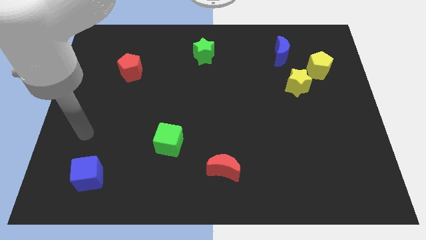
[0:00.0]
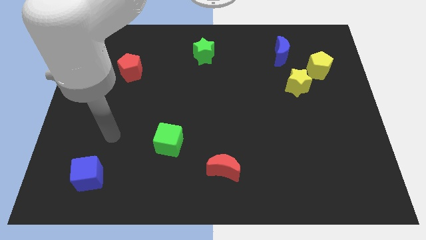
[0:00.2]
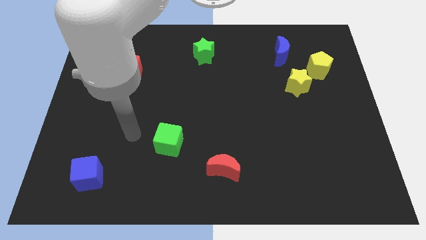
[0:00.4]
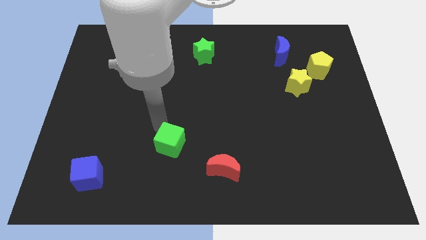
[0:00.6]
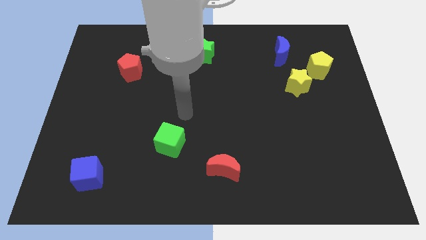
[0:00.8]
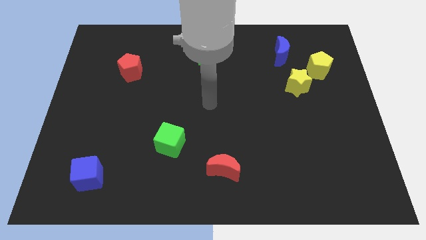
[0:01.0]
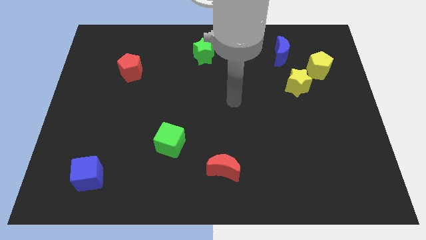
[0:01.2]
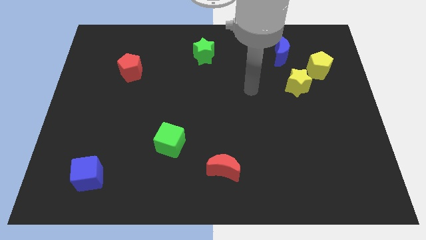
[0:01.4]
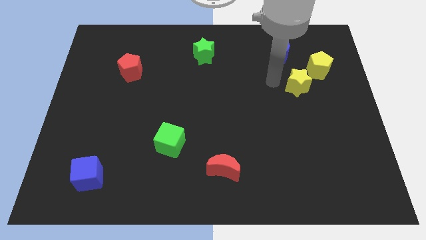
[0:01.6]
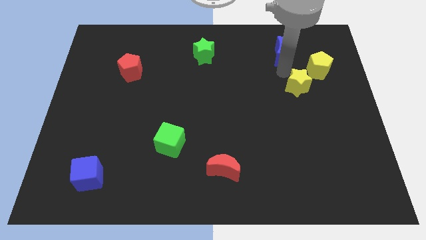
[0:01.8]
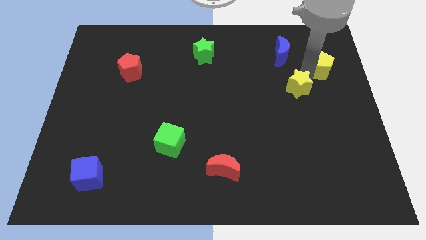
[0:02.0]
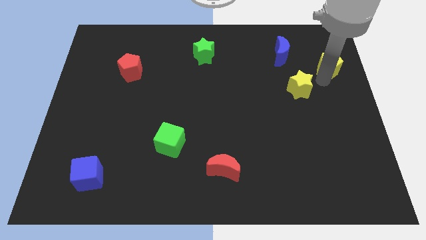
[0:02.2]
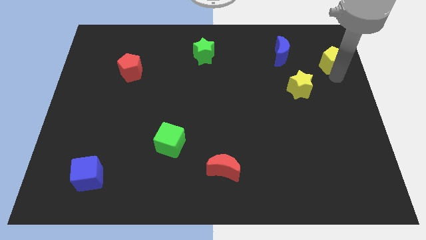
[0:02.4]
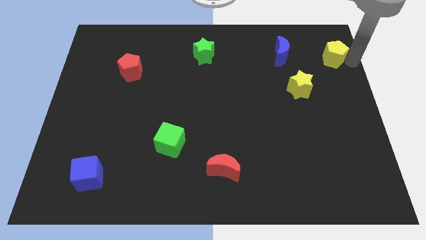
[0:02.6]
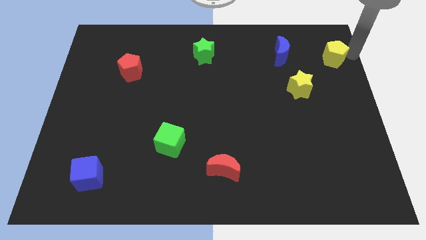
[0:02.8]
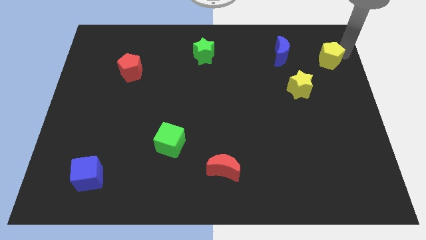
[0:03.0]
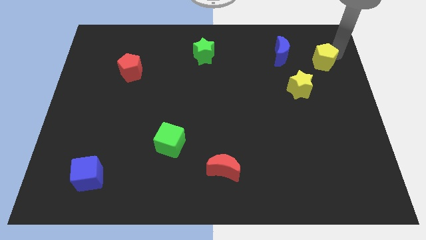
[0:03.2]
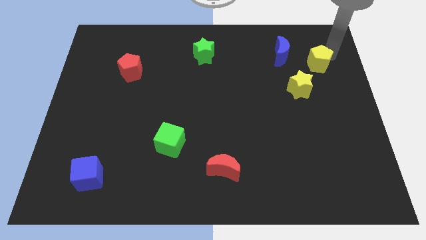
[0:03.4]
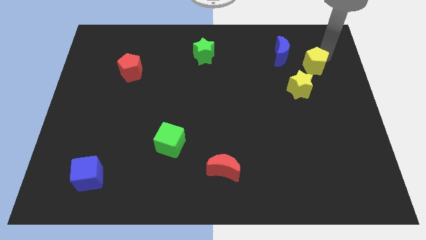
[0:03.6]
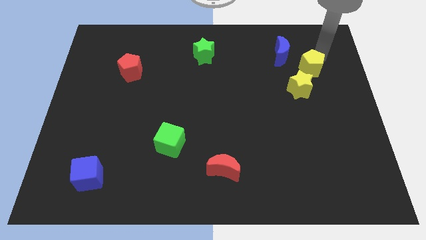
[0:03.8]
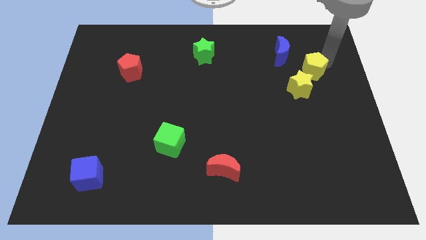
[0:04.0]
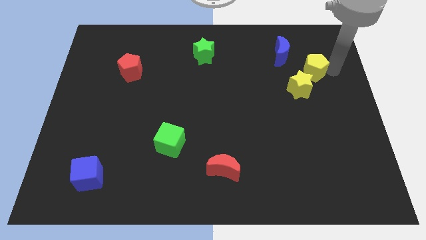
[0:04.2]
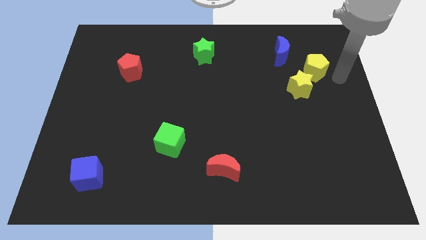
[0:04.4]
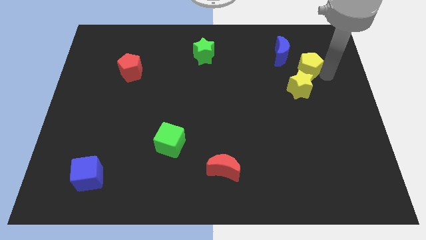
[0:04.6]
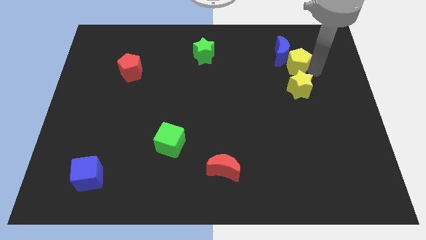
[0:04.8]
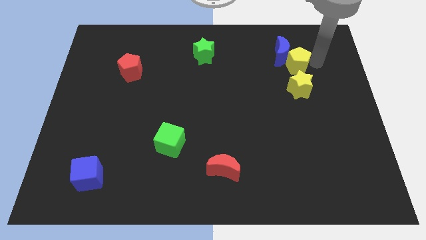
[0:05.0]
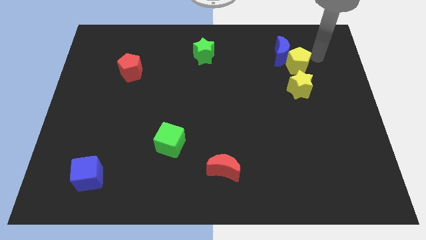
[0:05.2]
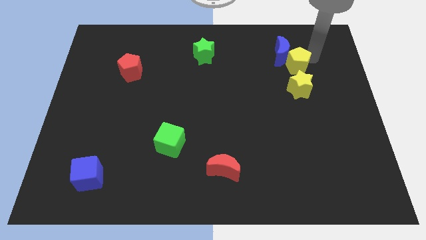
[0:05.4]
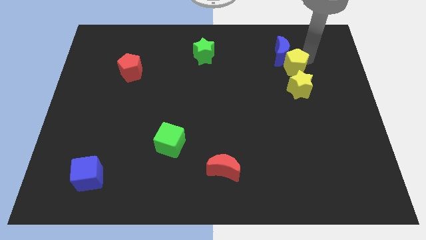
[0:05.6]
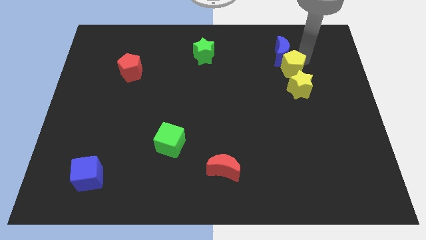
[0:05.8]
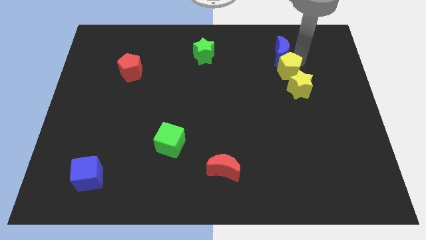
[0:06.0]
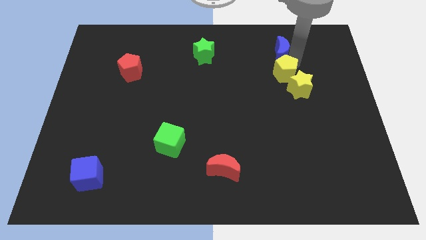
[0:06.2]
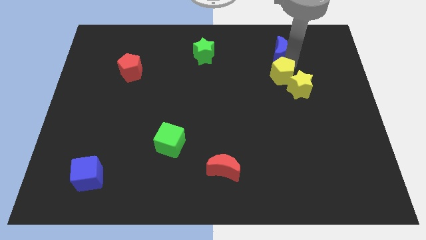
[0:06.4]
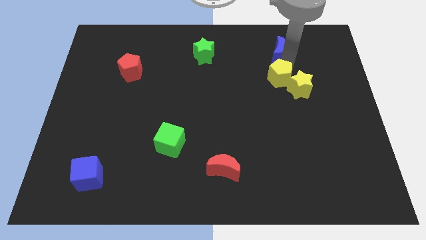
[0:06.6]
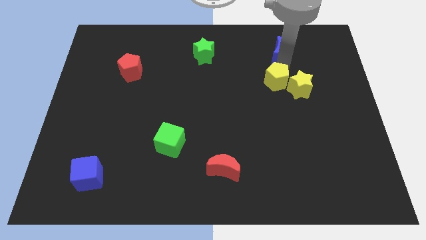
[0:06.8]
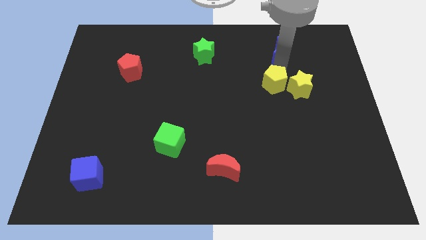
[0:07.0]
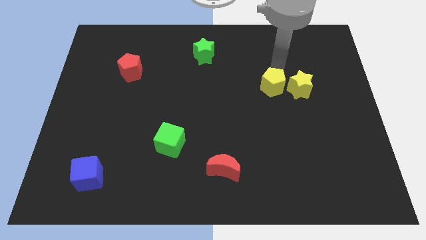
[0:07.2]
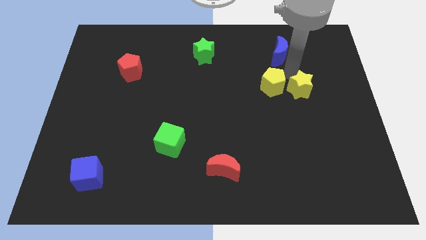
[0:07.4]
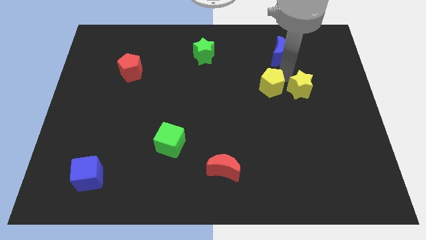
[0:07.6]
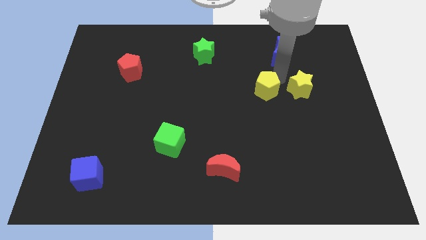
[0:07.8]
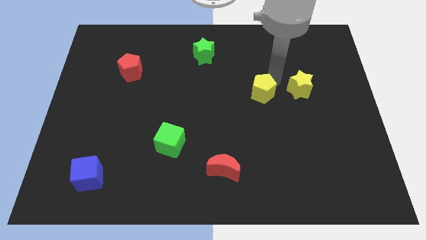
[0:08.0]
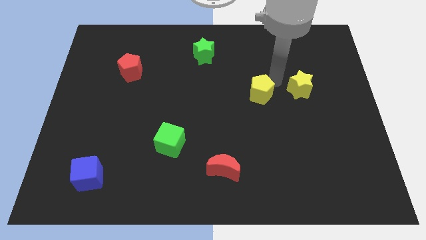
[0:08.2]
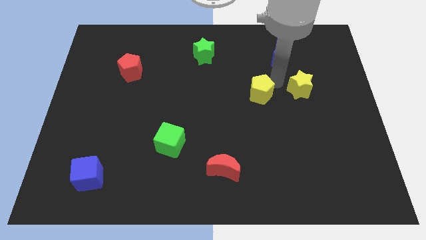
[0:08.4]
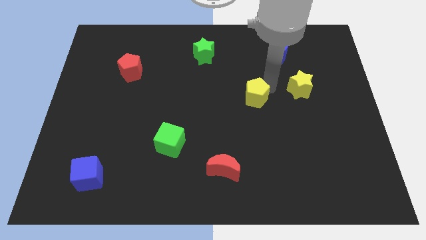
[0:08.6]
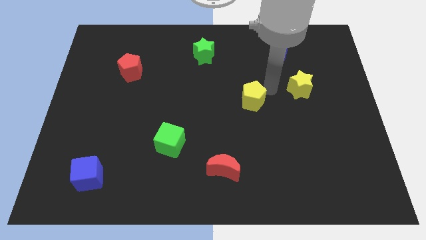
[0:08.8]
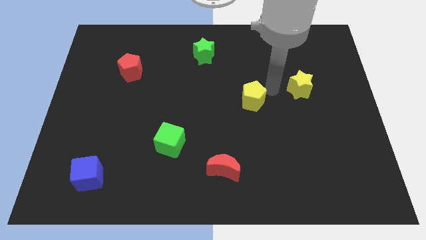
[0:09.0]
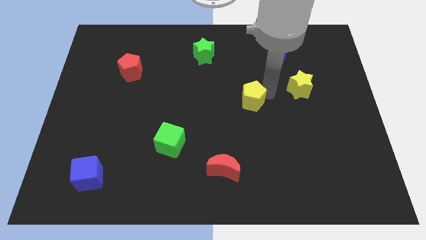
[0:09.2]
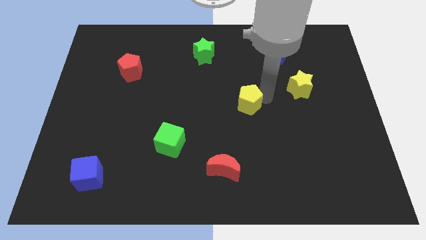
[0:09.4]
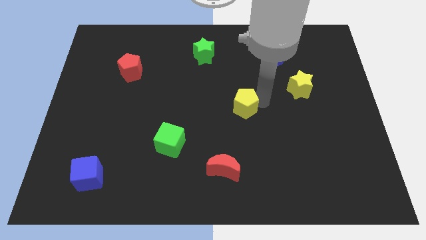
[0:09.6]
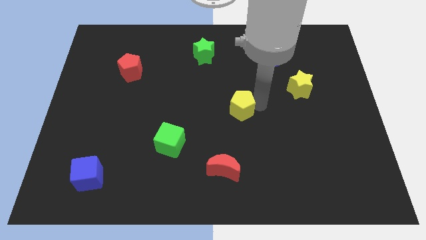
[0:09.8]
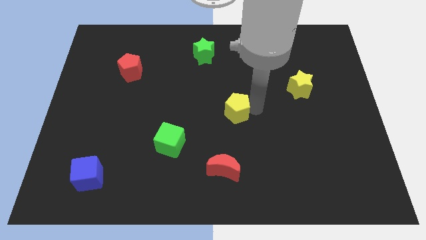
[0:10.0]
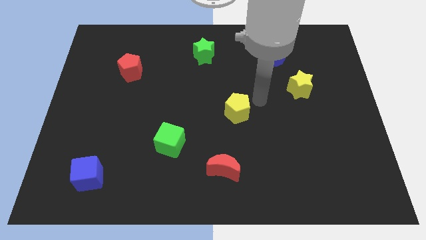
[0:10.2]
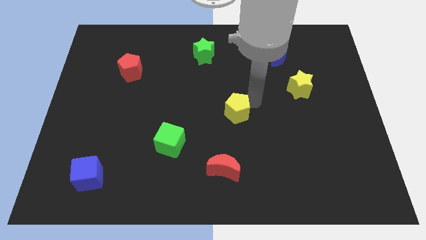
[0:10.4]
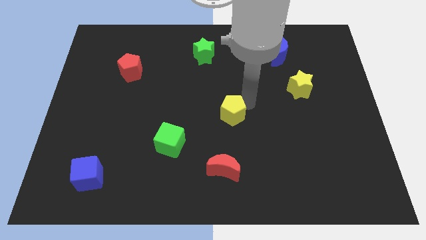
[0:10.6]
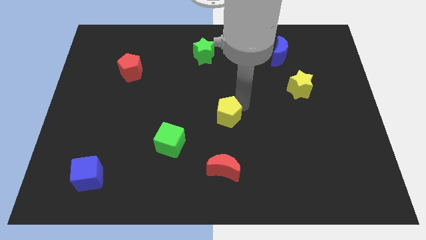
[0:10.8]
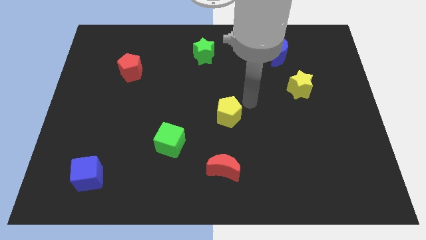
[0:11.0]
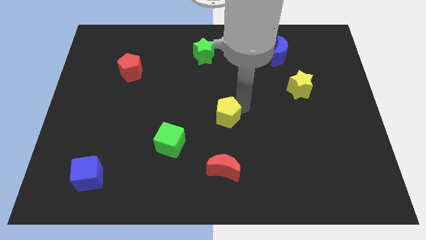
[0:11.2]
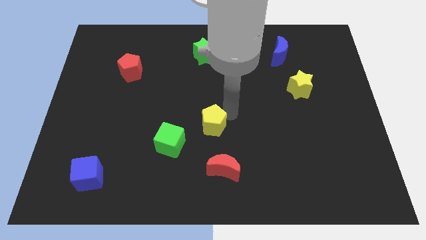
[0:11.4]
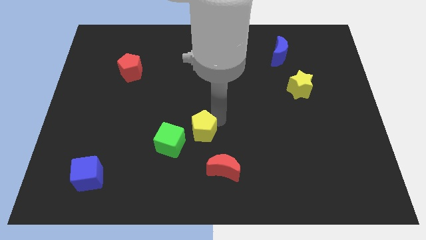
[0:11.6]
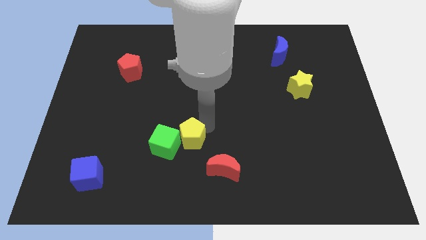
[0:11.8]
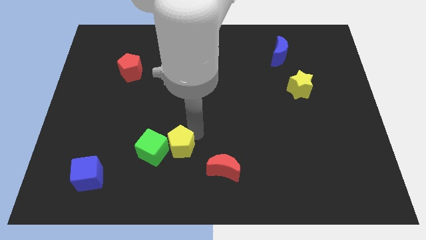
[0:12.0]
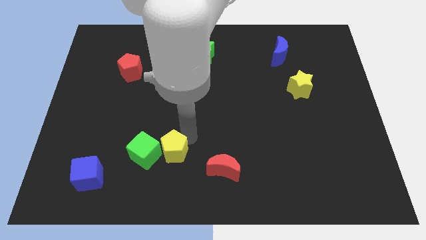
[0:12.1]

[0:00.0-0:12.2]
push the yellow pentagon to the left of the red moon
